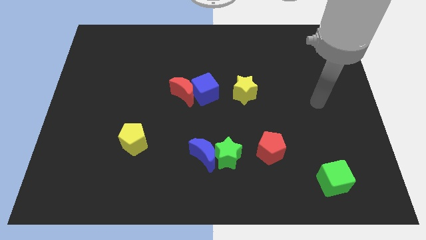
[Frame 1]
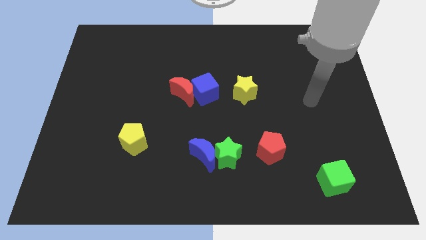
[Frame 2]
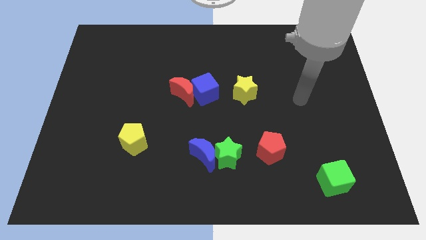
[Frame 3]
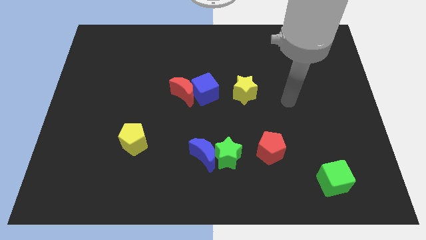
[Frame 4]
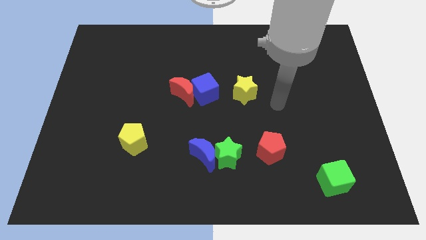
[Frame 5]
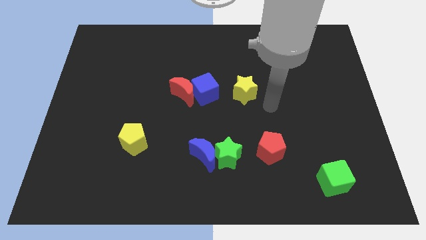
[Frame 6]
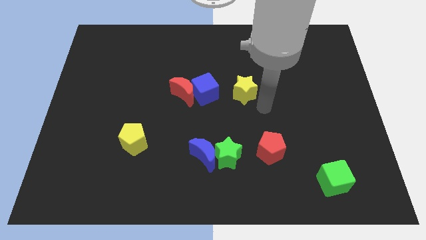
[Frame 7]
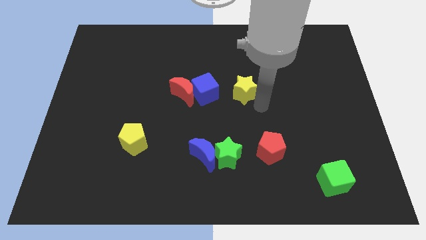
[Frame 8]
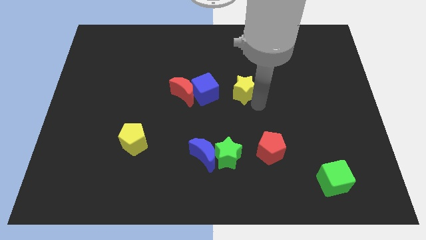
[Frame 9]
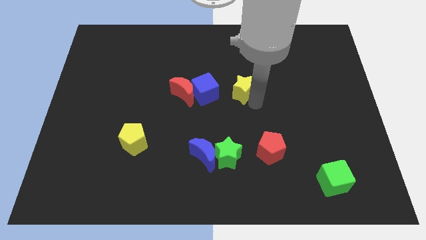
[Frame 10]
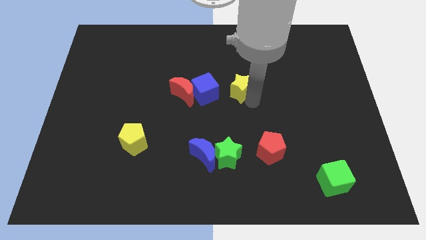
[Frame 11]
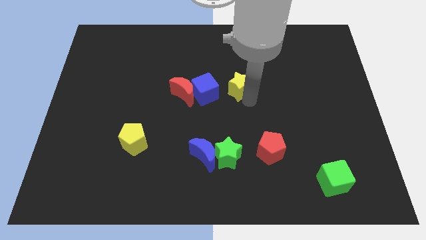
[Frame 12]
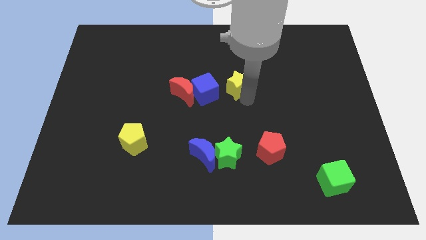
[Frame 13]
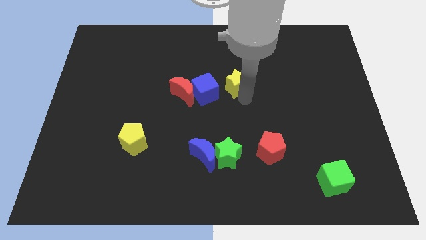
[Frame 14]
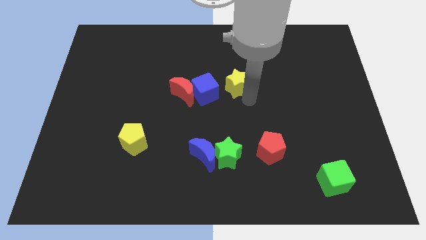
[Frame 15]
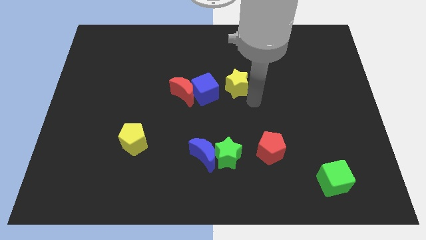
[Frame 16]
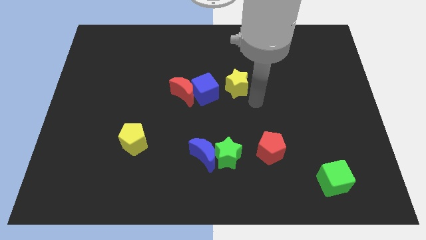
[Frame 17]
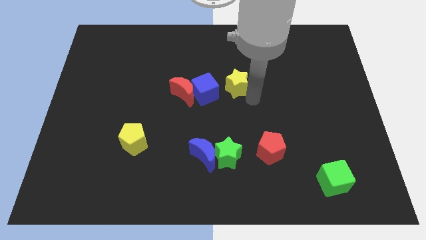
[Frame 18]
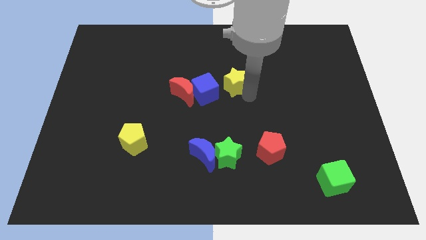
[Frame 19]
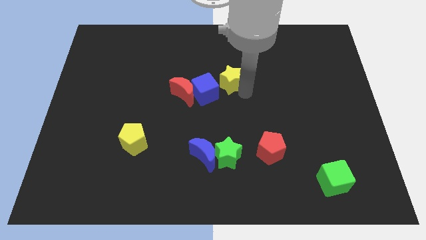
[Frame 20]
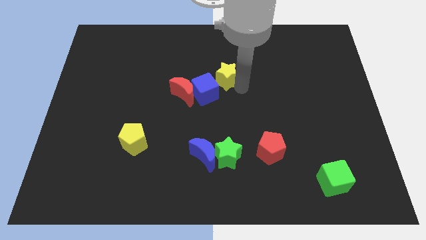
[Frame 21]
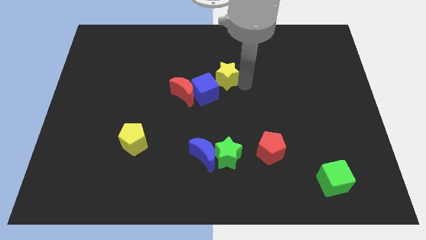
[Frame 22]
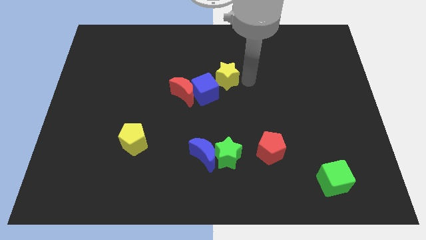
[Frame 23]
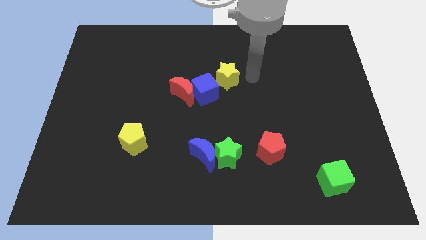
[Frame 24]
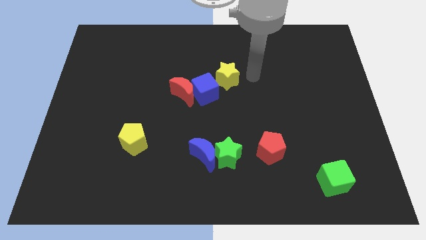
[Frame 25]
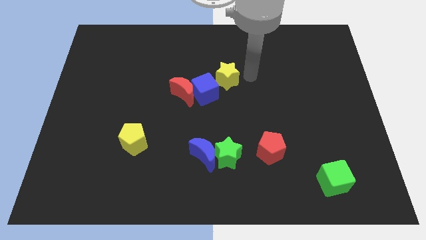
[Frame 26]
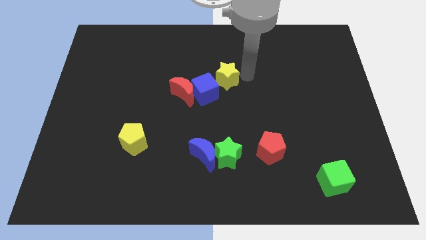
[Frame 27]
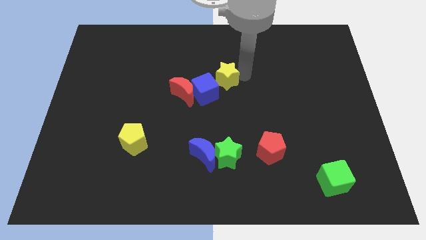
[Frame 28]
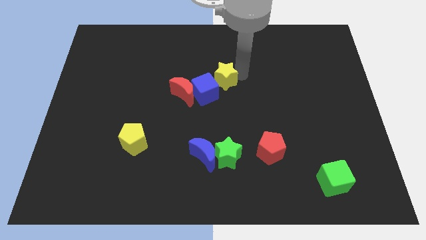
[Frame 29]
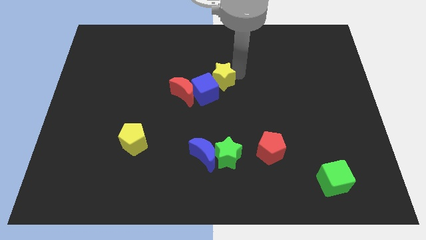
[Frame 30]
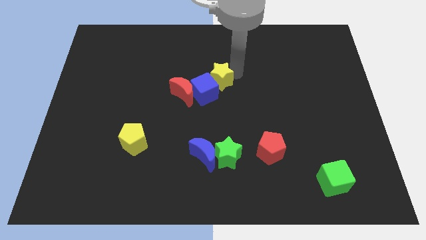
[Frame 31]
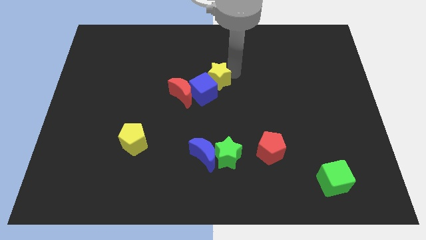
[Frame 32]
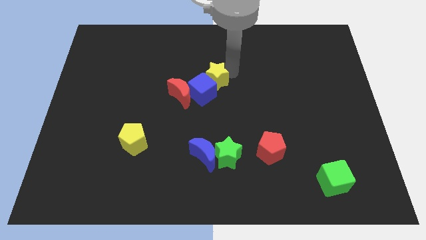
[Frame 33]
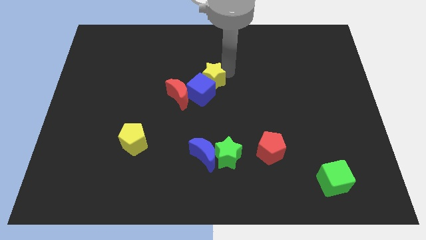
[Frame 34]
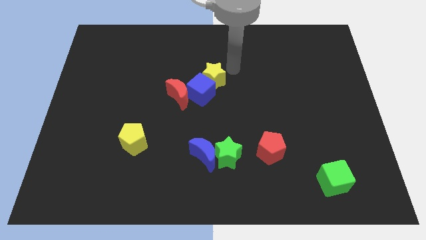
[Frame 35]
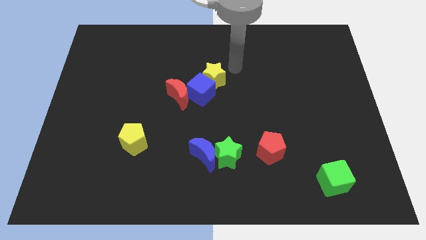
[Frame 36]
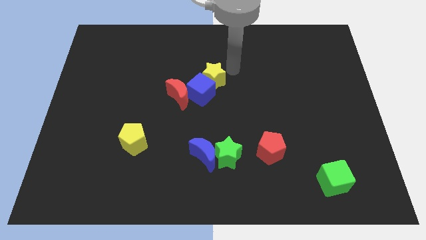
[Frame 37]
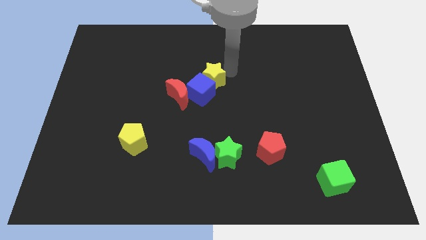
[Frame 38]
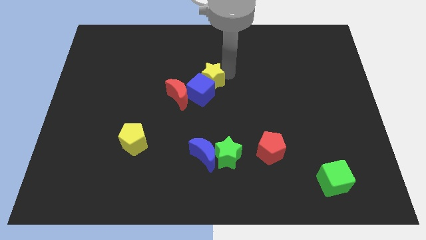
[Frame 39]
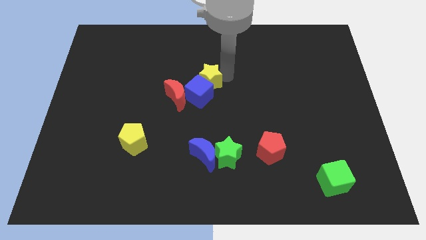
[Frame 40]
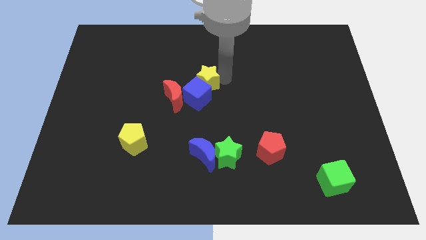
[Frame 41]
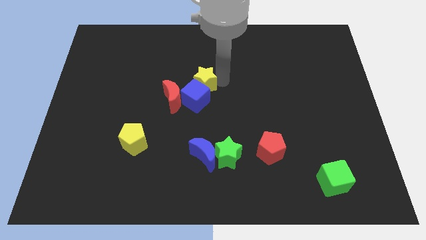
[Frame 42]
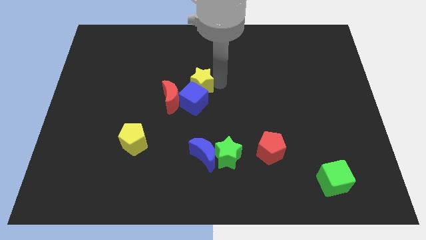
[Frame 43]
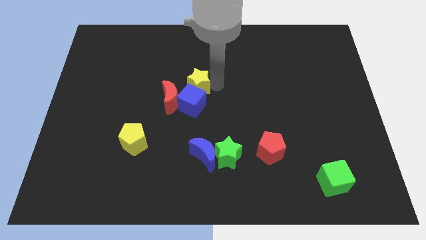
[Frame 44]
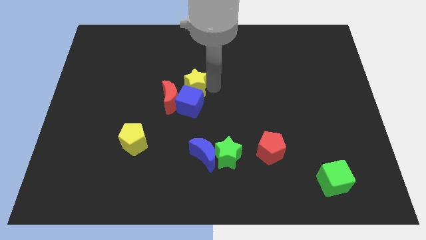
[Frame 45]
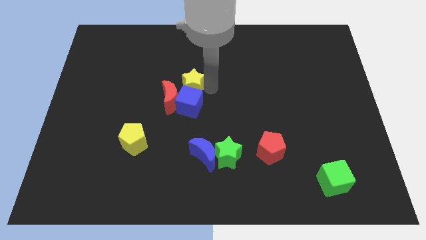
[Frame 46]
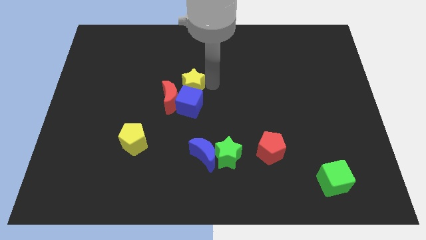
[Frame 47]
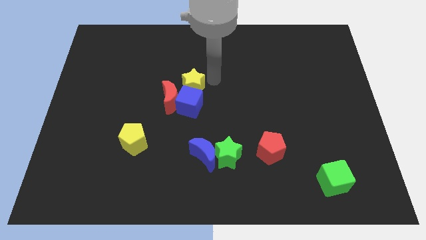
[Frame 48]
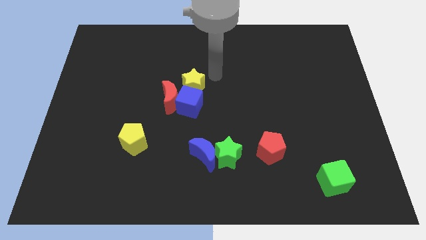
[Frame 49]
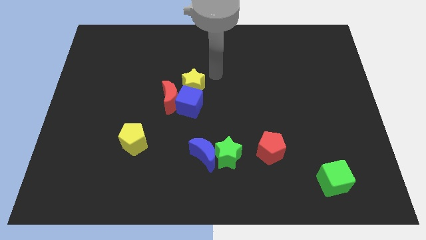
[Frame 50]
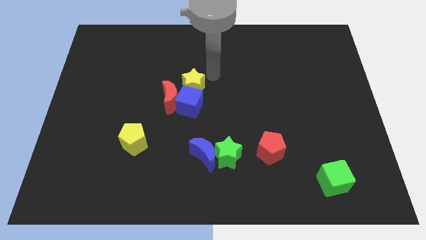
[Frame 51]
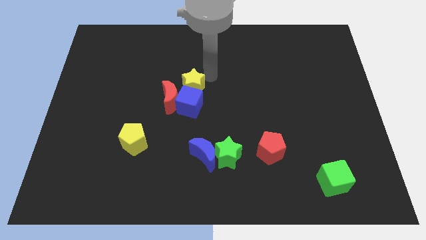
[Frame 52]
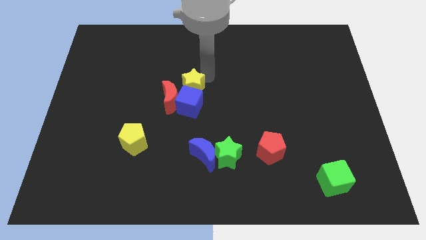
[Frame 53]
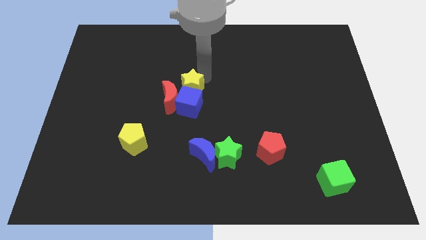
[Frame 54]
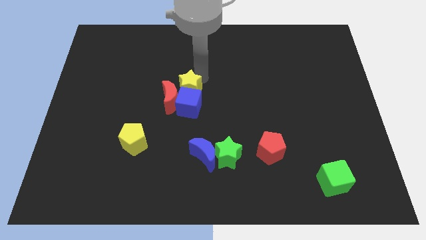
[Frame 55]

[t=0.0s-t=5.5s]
put the yellow star towards the red moon
